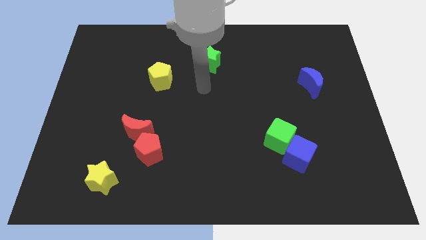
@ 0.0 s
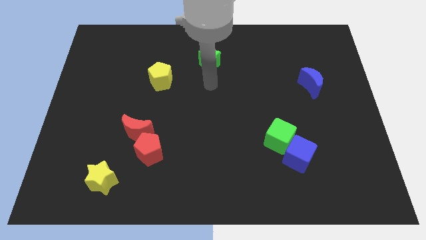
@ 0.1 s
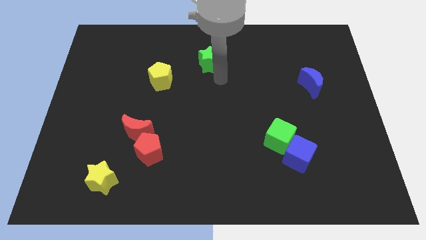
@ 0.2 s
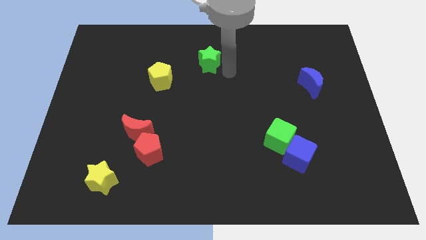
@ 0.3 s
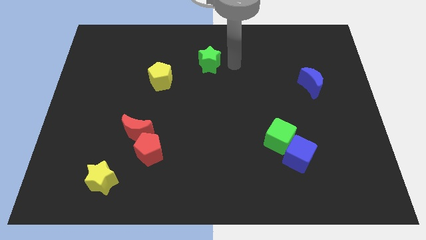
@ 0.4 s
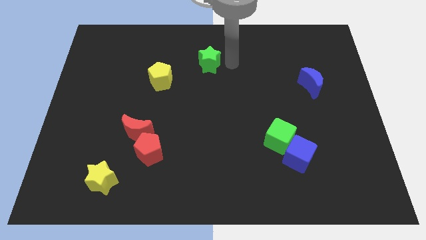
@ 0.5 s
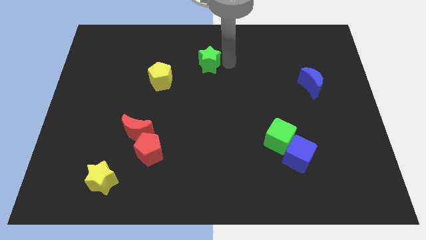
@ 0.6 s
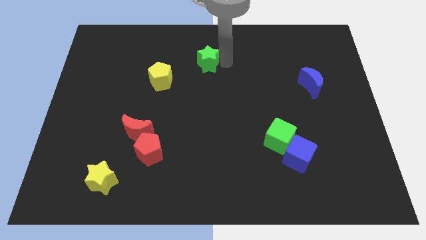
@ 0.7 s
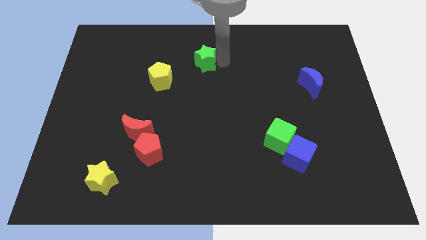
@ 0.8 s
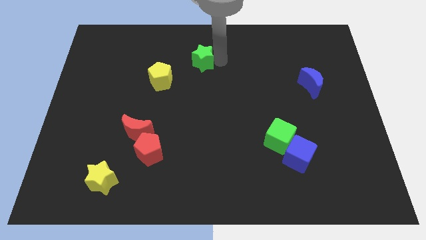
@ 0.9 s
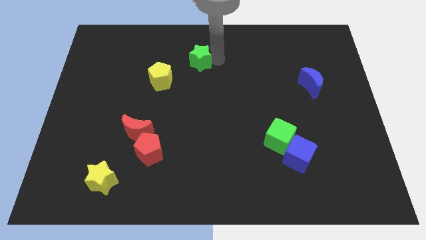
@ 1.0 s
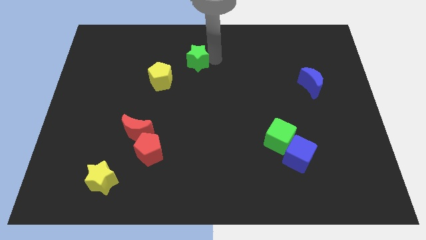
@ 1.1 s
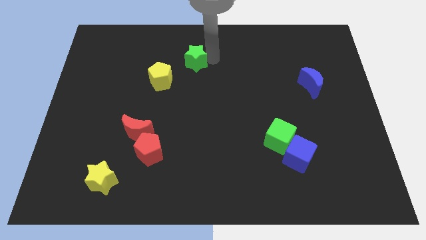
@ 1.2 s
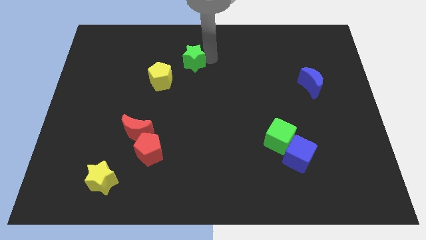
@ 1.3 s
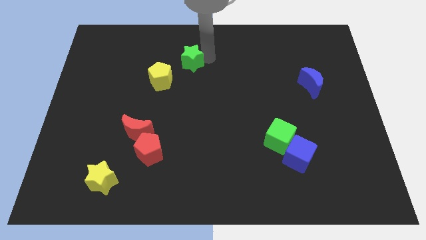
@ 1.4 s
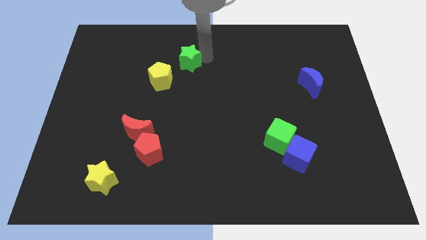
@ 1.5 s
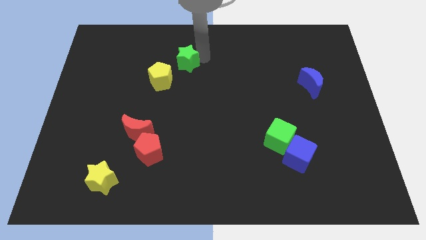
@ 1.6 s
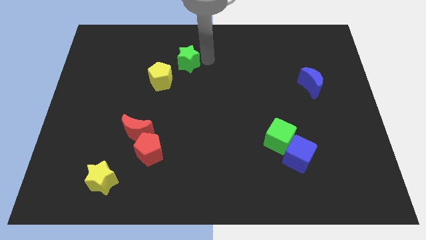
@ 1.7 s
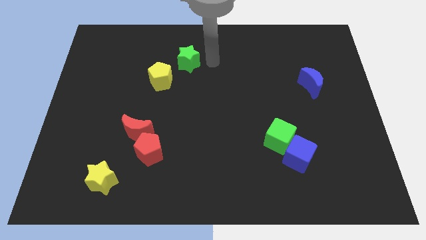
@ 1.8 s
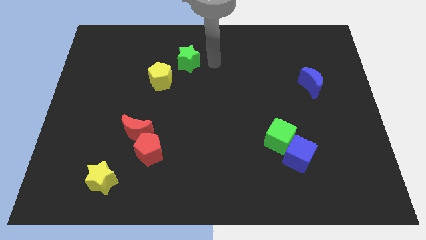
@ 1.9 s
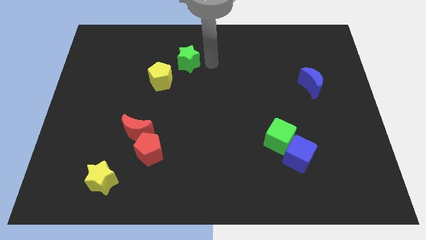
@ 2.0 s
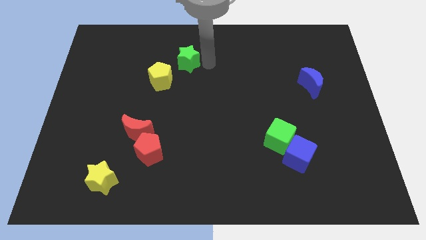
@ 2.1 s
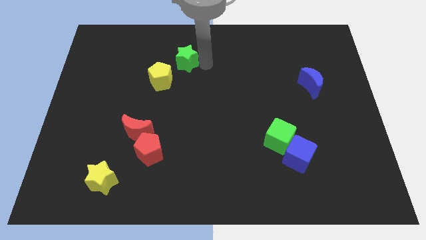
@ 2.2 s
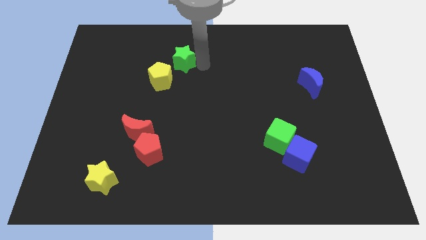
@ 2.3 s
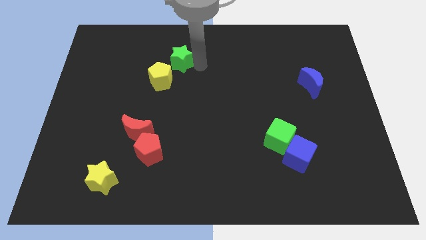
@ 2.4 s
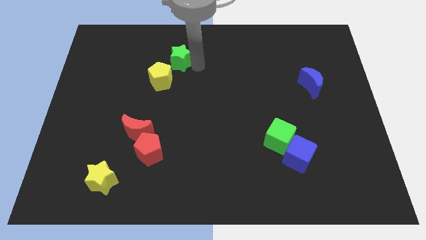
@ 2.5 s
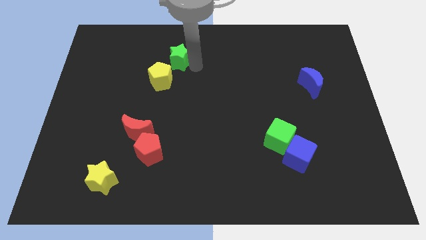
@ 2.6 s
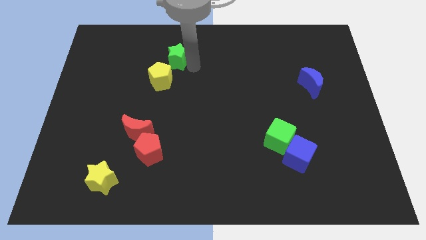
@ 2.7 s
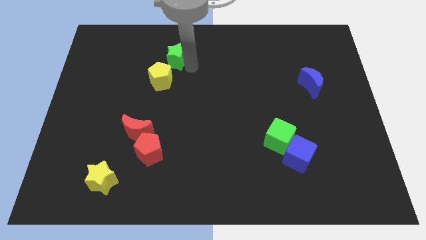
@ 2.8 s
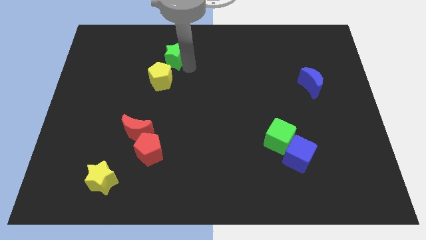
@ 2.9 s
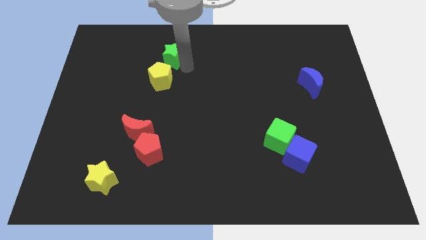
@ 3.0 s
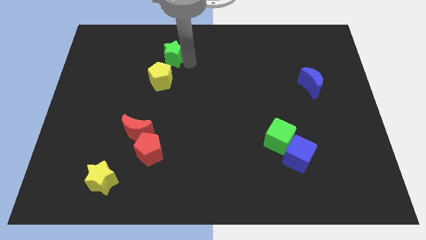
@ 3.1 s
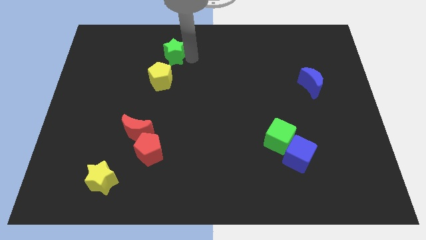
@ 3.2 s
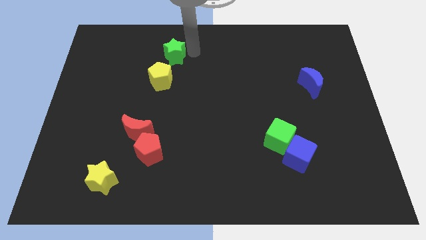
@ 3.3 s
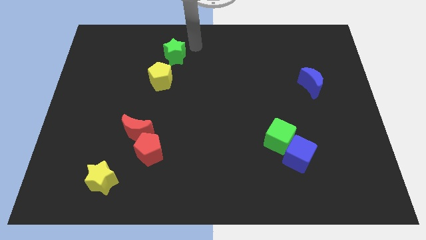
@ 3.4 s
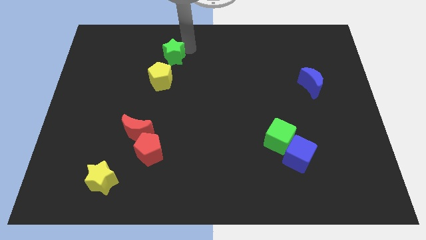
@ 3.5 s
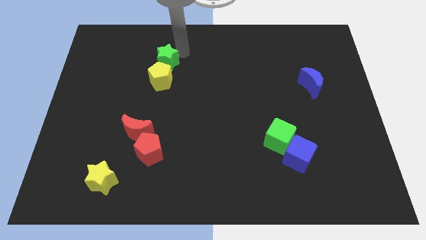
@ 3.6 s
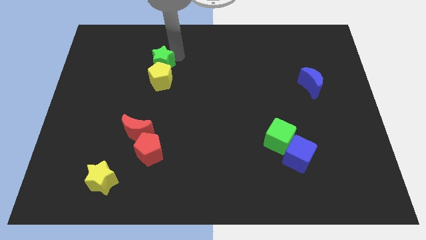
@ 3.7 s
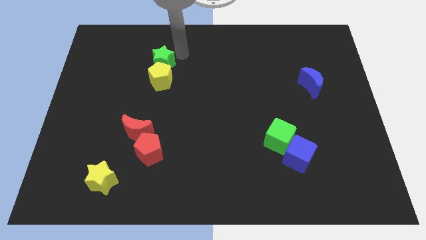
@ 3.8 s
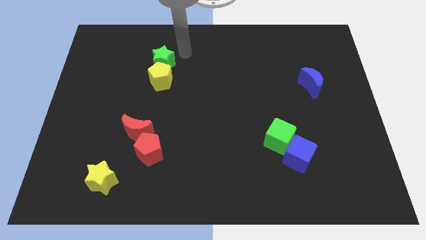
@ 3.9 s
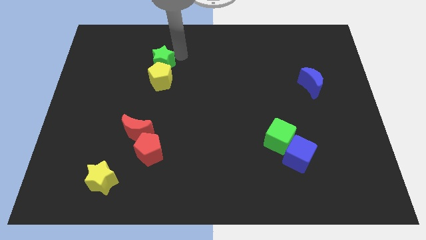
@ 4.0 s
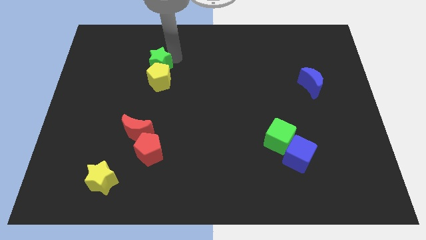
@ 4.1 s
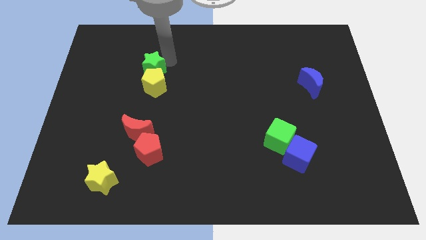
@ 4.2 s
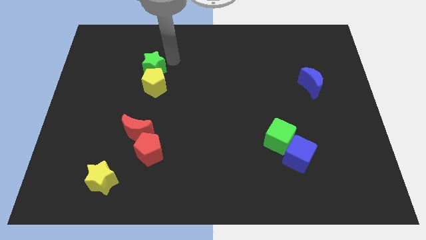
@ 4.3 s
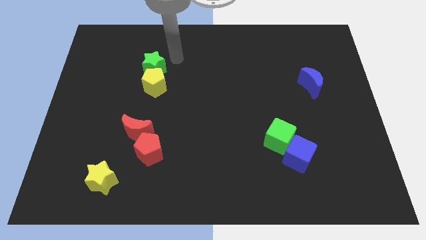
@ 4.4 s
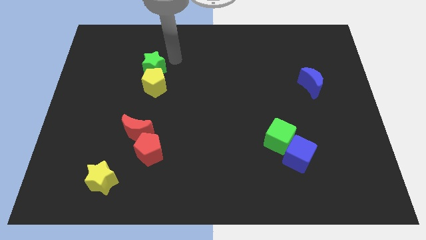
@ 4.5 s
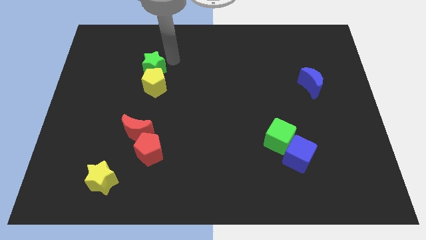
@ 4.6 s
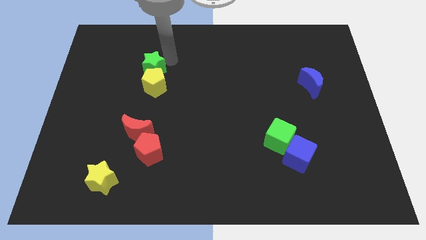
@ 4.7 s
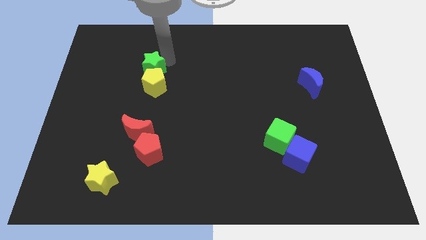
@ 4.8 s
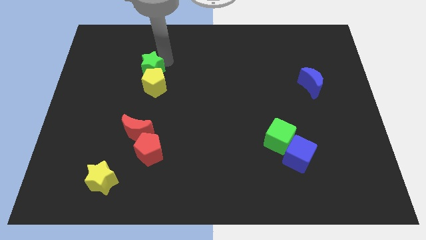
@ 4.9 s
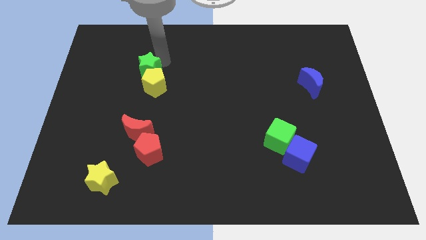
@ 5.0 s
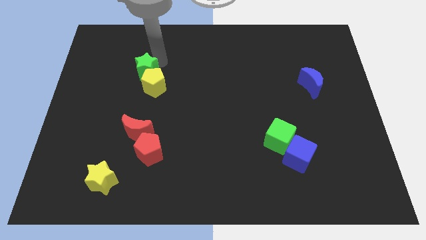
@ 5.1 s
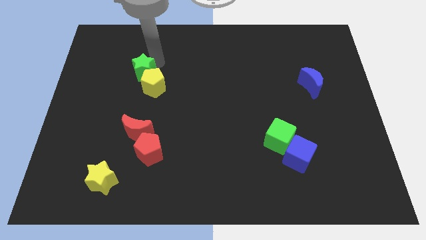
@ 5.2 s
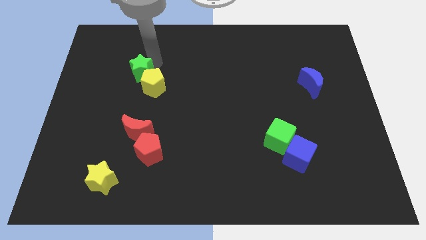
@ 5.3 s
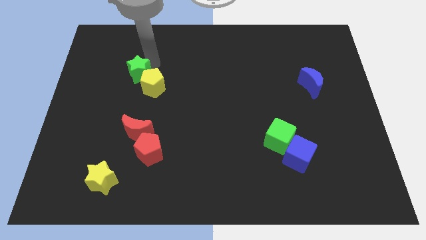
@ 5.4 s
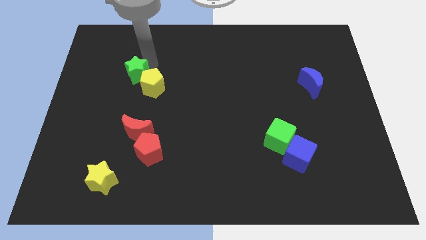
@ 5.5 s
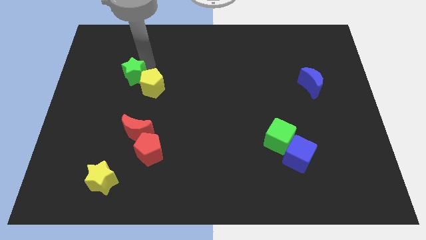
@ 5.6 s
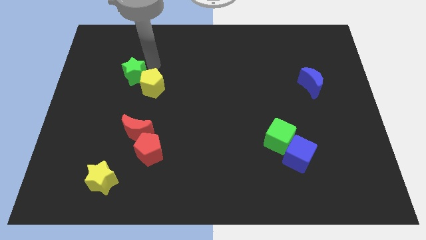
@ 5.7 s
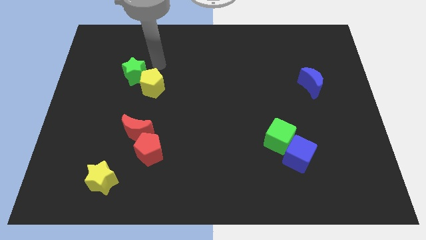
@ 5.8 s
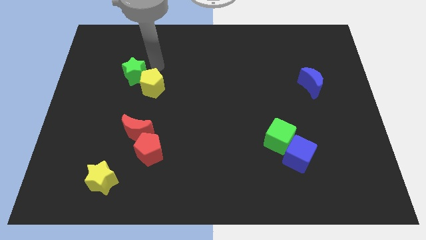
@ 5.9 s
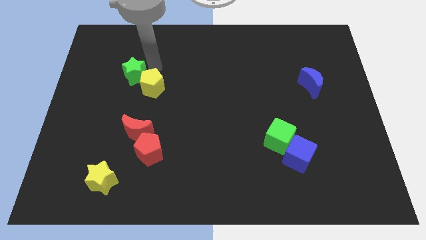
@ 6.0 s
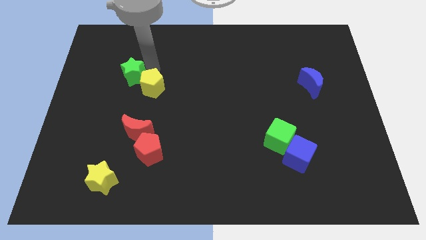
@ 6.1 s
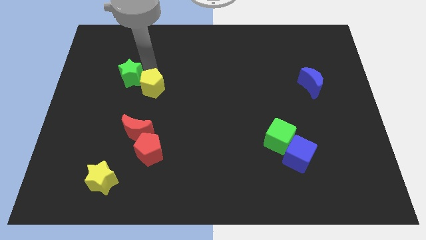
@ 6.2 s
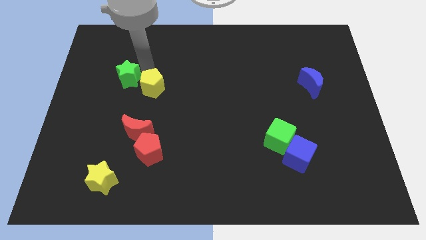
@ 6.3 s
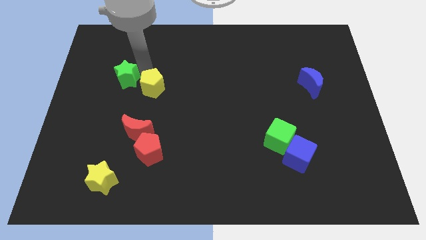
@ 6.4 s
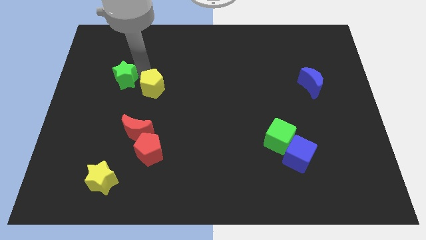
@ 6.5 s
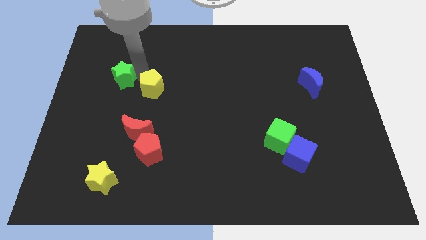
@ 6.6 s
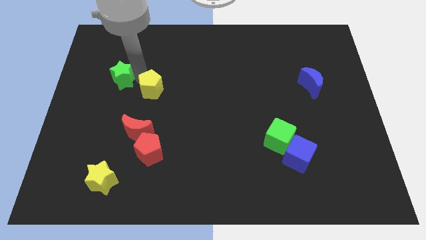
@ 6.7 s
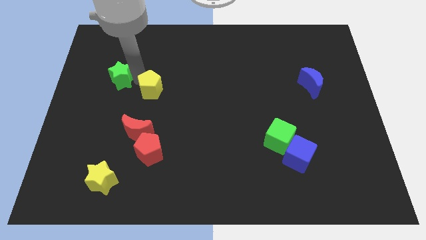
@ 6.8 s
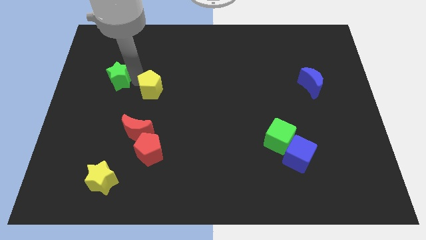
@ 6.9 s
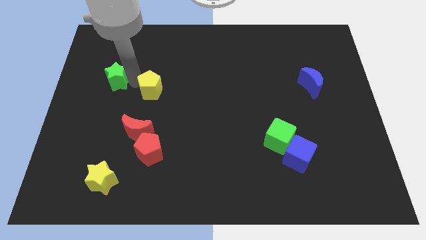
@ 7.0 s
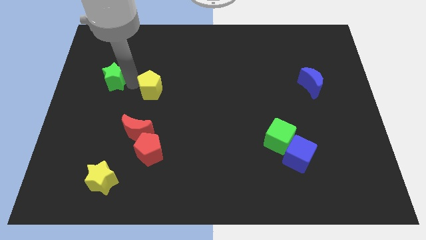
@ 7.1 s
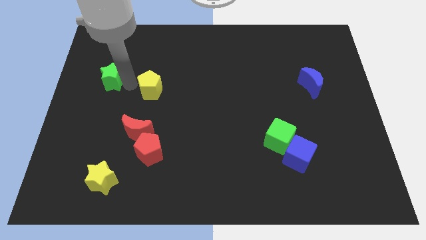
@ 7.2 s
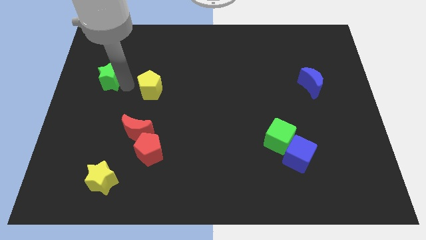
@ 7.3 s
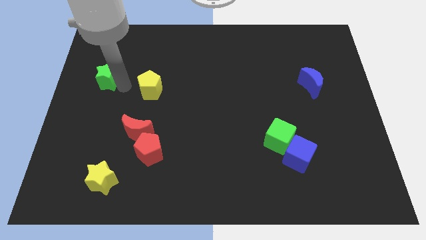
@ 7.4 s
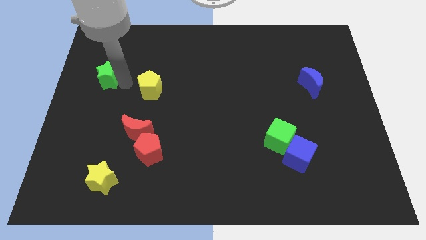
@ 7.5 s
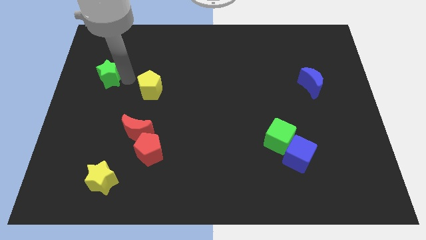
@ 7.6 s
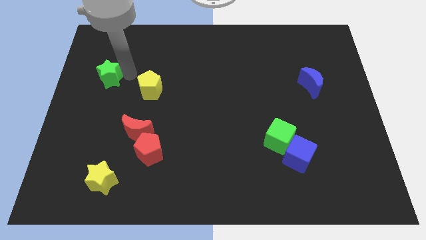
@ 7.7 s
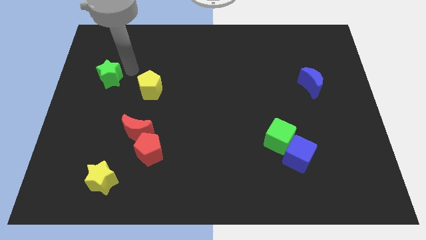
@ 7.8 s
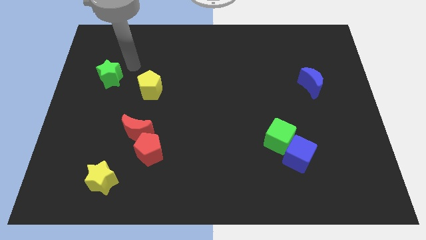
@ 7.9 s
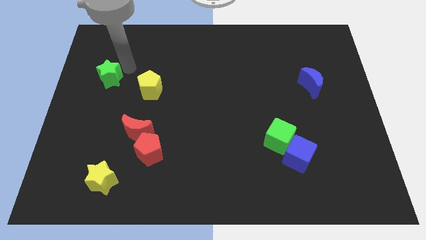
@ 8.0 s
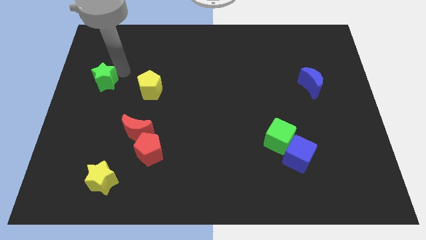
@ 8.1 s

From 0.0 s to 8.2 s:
put the green star to the center left
